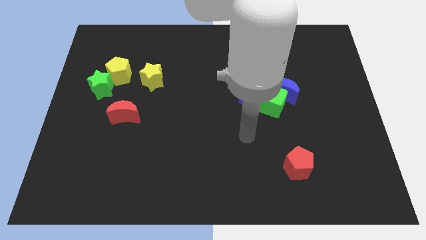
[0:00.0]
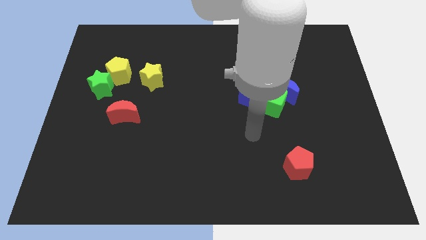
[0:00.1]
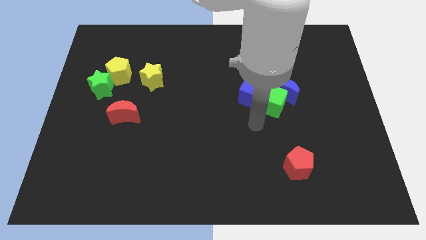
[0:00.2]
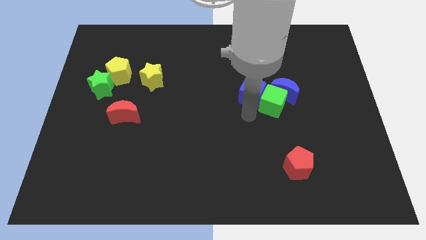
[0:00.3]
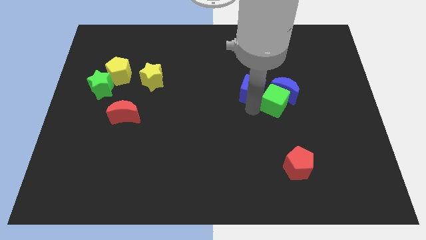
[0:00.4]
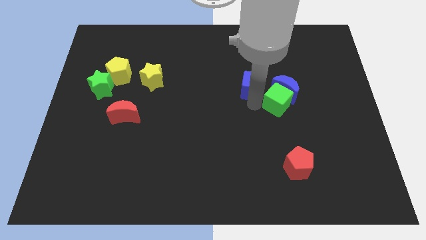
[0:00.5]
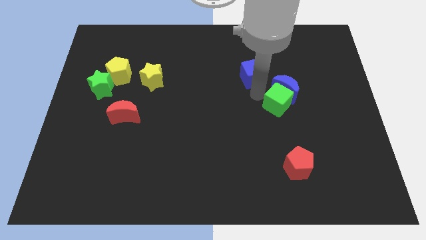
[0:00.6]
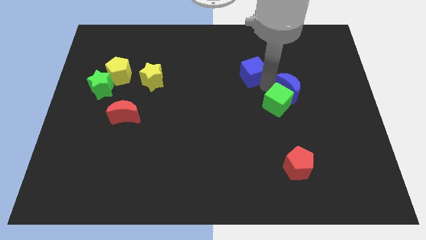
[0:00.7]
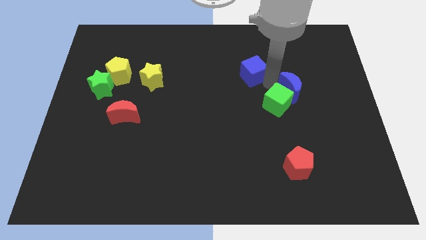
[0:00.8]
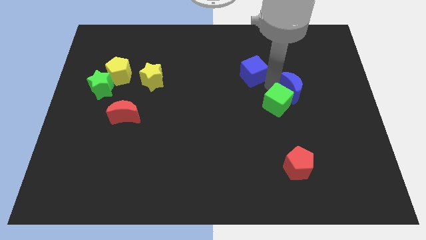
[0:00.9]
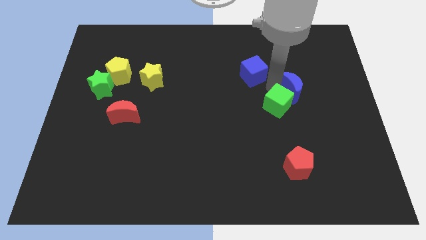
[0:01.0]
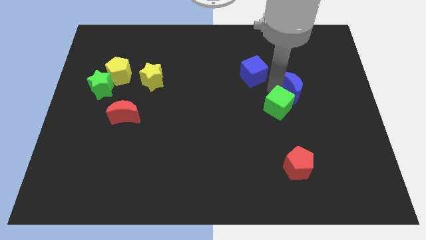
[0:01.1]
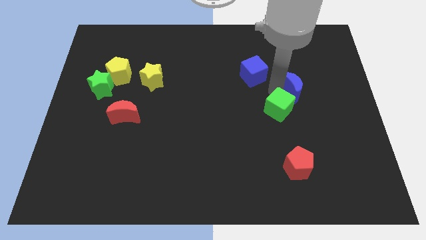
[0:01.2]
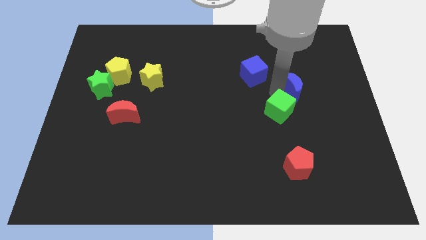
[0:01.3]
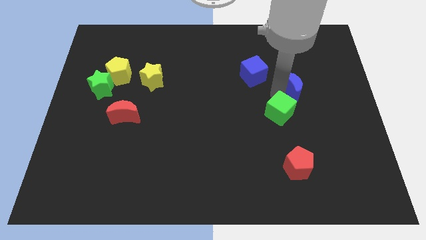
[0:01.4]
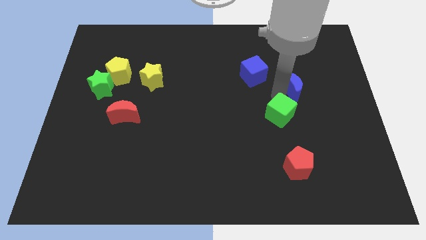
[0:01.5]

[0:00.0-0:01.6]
pull the green cube apart from the blue moon and blue cube

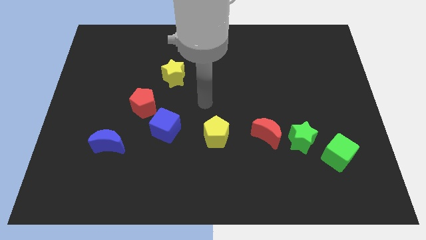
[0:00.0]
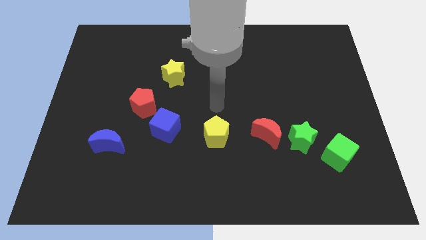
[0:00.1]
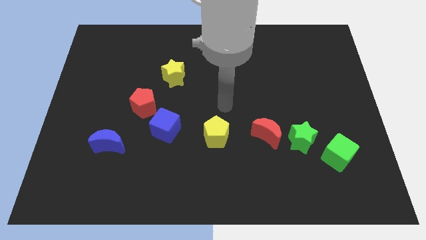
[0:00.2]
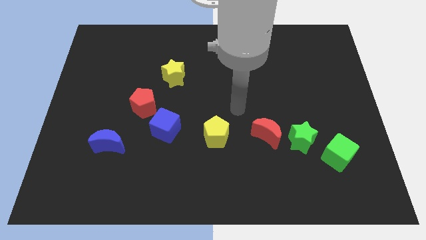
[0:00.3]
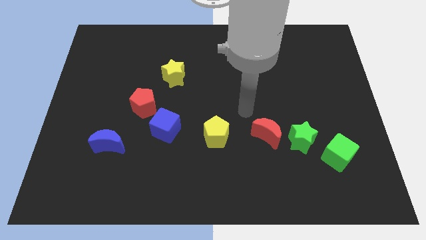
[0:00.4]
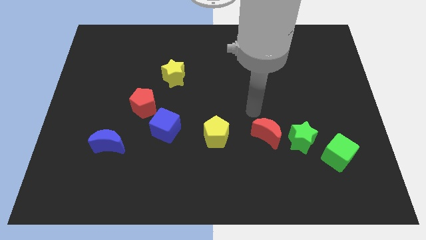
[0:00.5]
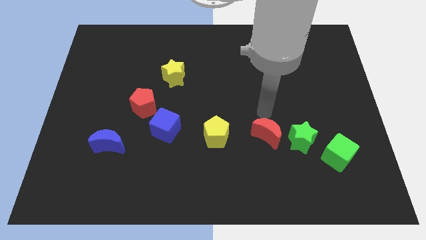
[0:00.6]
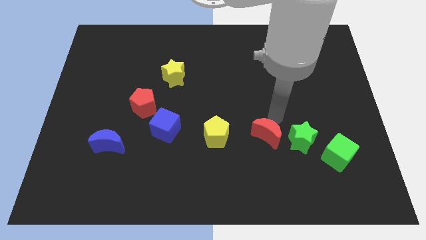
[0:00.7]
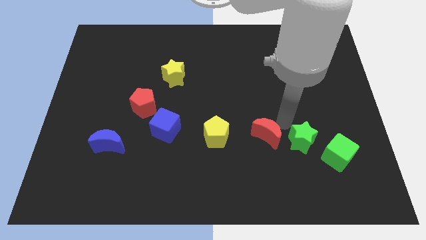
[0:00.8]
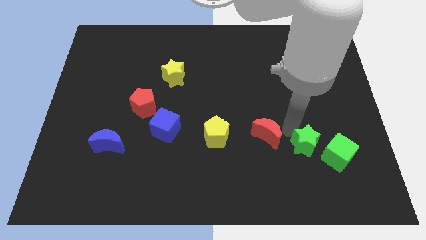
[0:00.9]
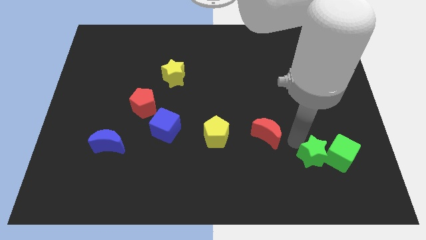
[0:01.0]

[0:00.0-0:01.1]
move the red moon away from the green star

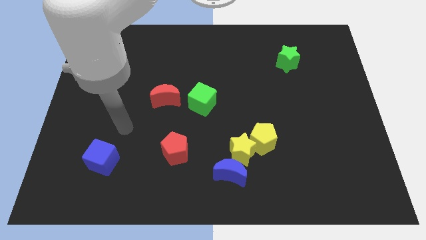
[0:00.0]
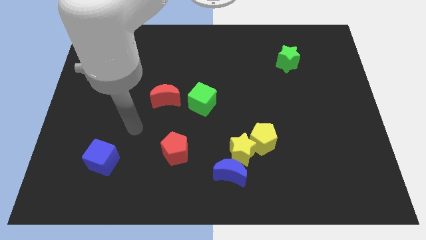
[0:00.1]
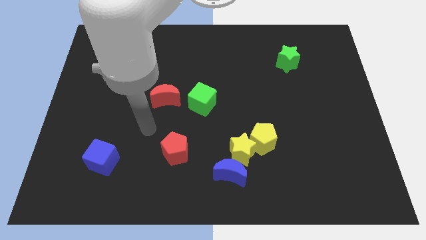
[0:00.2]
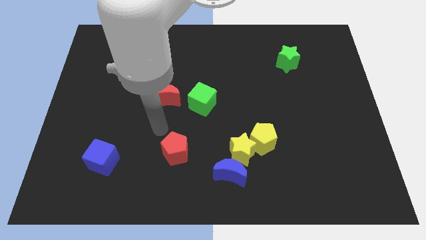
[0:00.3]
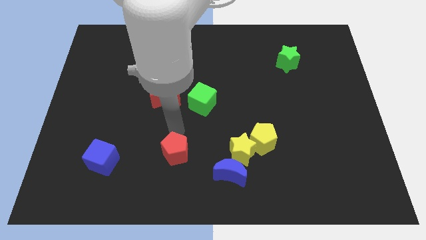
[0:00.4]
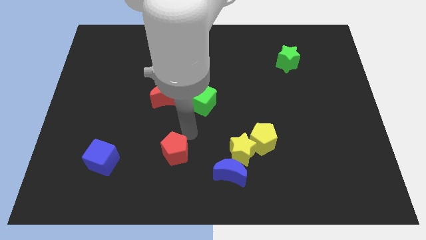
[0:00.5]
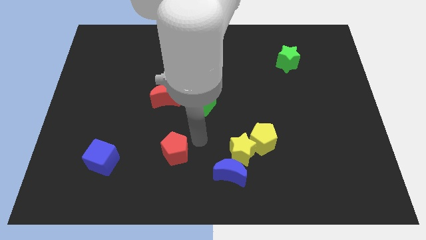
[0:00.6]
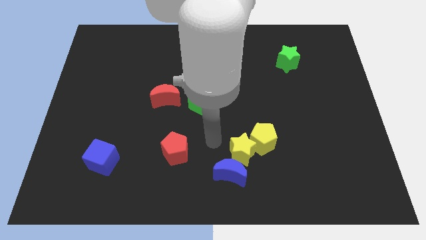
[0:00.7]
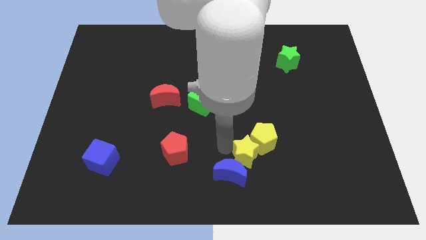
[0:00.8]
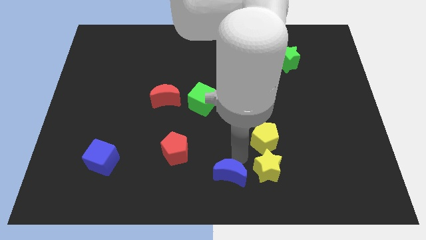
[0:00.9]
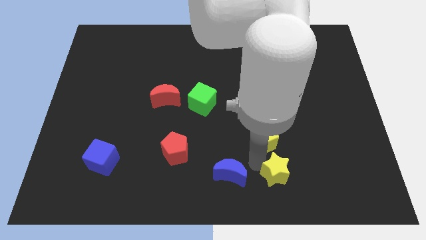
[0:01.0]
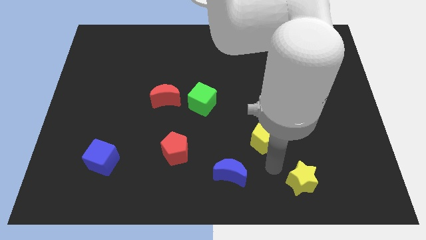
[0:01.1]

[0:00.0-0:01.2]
separate the yellow pentagon from the yellow star

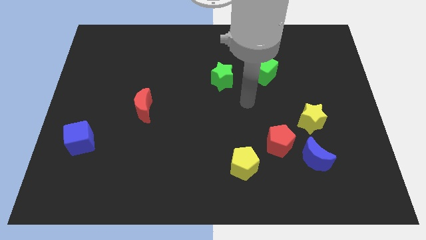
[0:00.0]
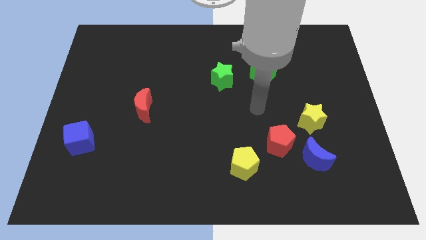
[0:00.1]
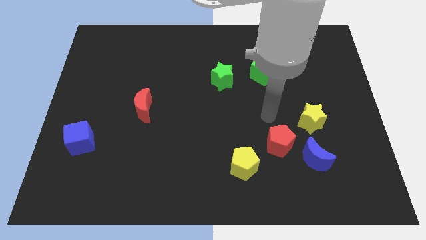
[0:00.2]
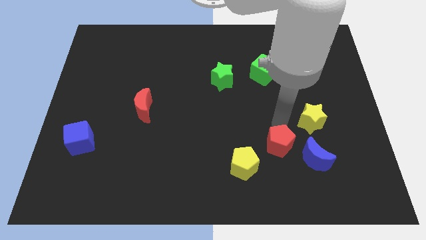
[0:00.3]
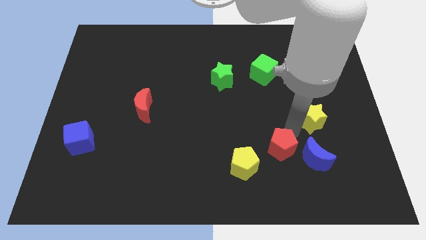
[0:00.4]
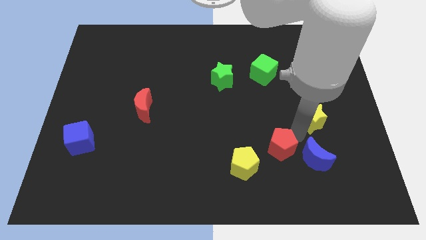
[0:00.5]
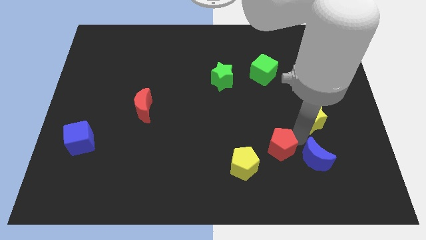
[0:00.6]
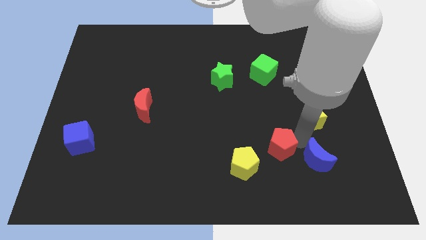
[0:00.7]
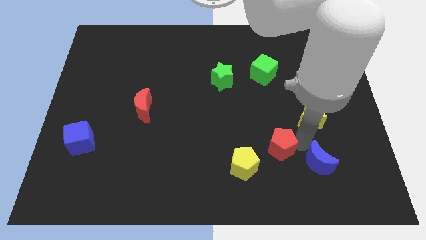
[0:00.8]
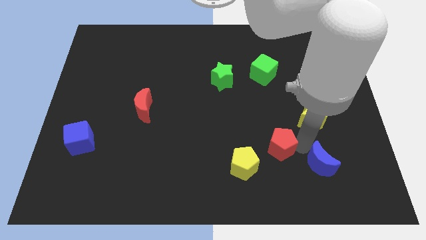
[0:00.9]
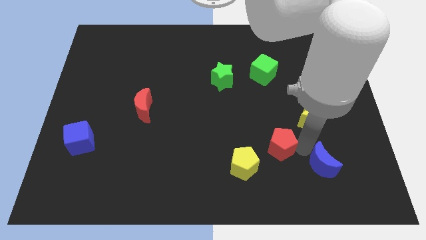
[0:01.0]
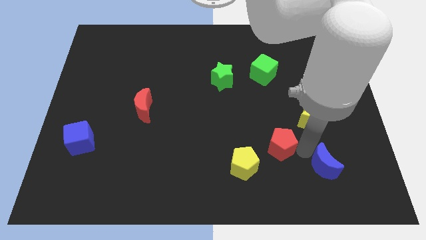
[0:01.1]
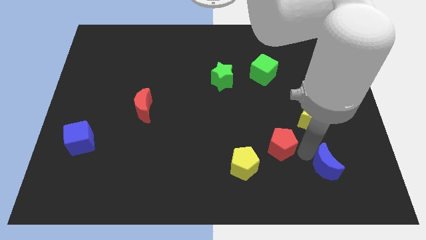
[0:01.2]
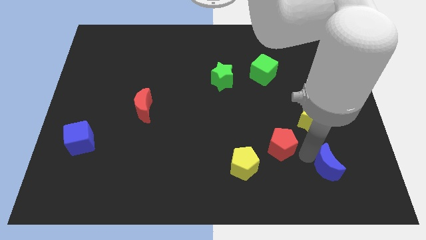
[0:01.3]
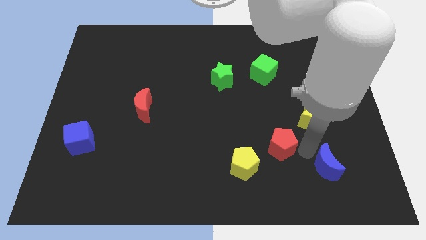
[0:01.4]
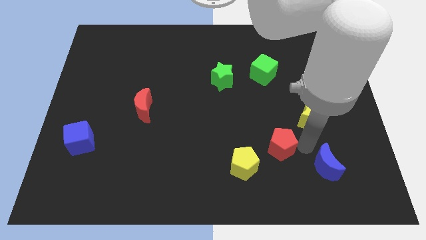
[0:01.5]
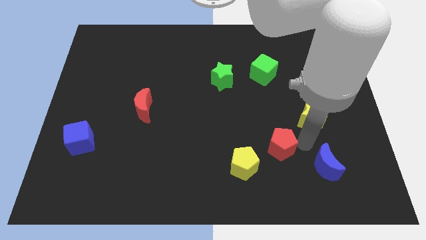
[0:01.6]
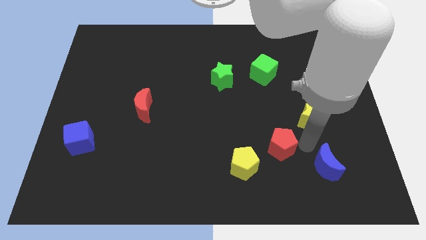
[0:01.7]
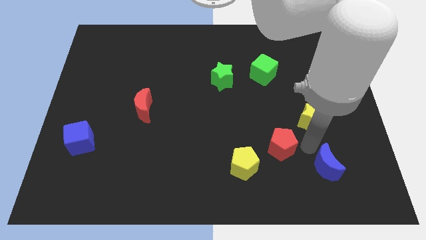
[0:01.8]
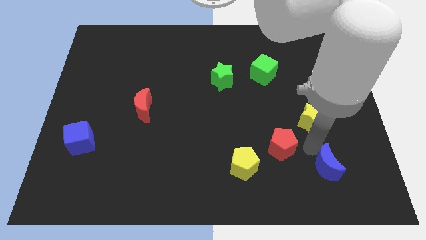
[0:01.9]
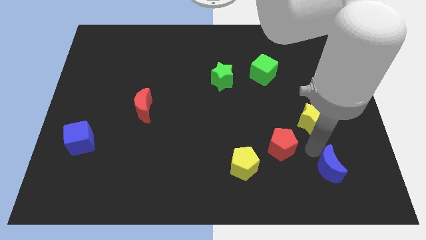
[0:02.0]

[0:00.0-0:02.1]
separate the blue moon from the red pentagon and yellow star

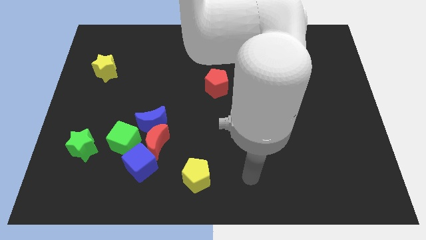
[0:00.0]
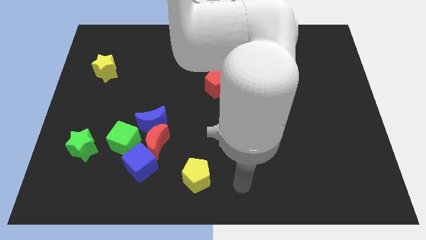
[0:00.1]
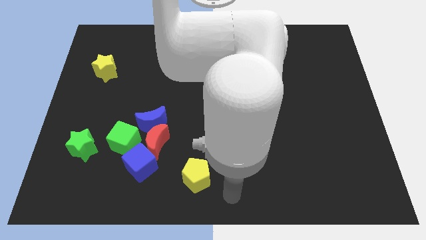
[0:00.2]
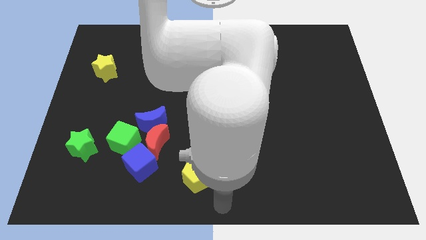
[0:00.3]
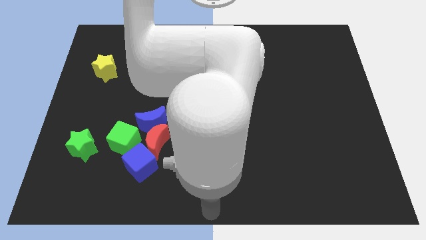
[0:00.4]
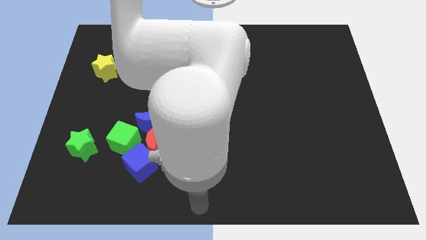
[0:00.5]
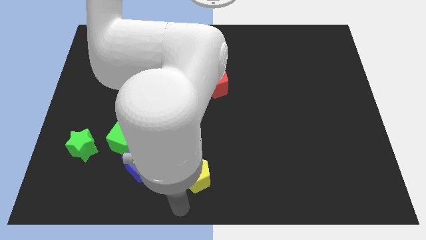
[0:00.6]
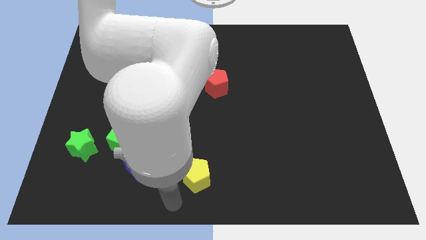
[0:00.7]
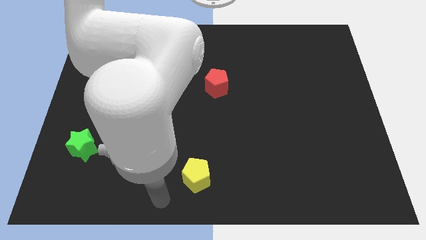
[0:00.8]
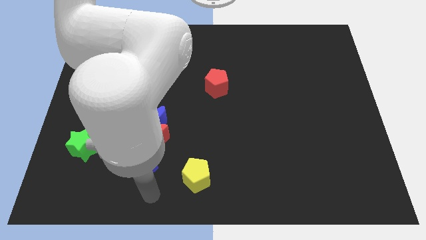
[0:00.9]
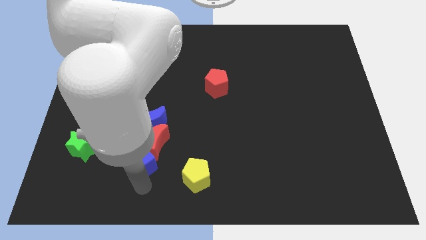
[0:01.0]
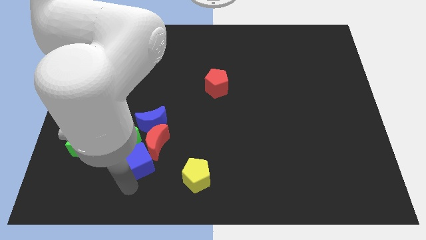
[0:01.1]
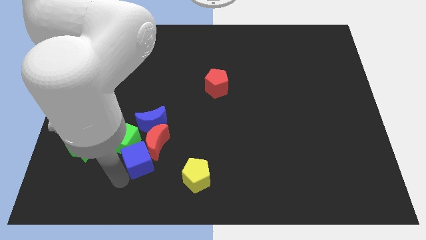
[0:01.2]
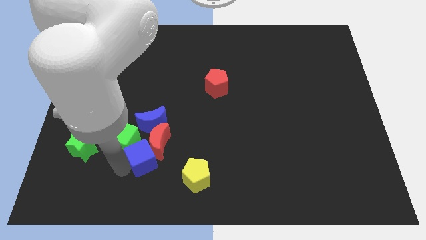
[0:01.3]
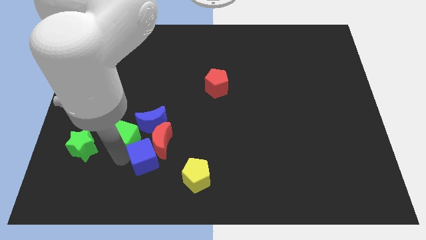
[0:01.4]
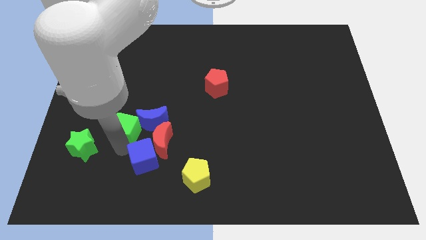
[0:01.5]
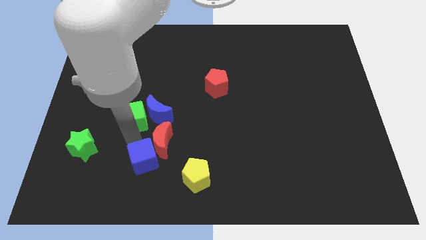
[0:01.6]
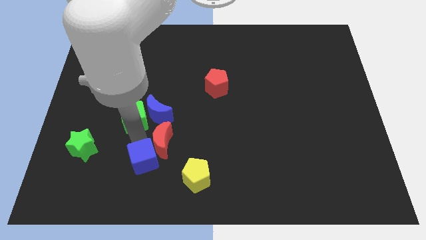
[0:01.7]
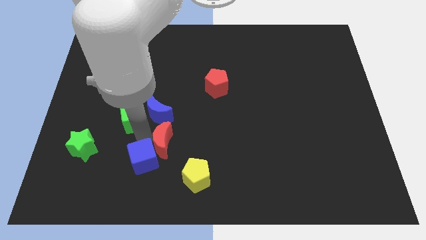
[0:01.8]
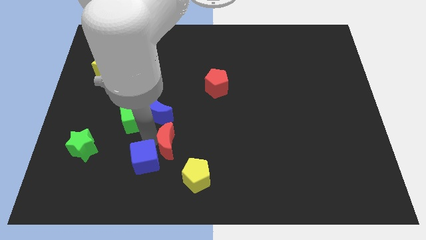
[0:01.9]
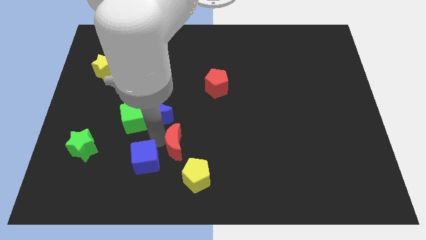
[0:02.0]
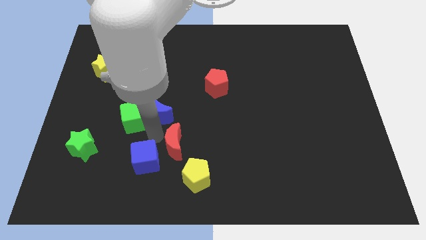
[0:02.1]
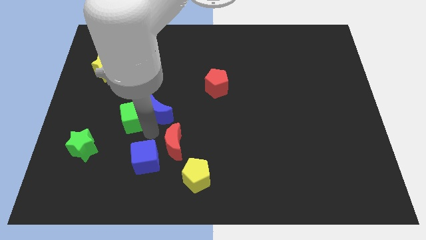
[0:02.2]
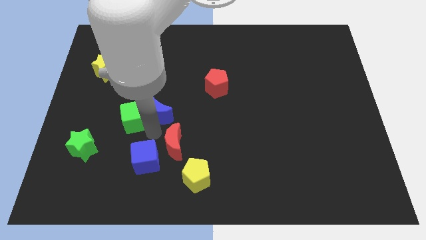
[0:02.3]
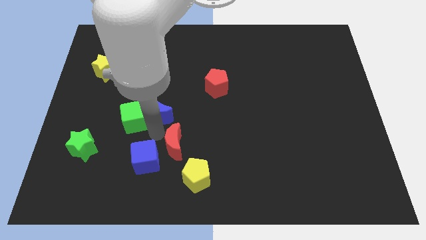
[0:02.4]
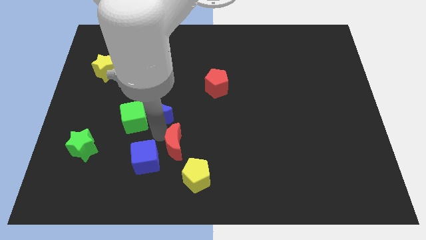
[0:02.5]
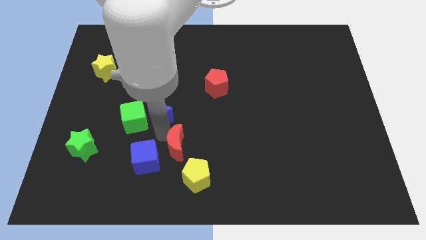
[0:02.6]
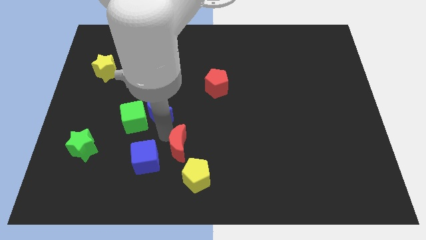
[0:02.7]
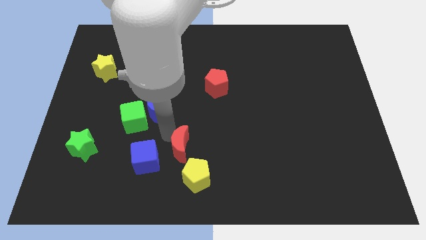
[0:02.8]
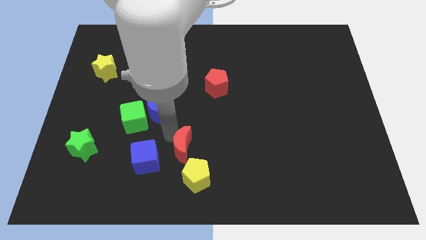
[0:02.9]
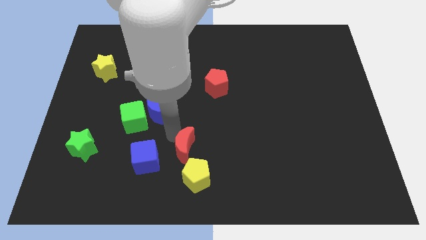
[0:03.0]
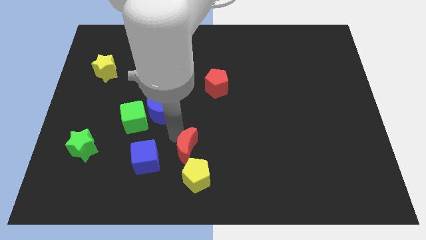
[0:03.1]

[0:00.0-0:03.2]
separate the red moon from the group
